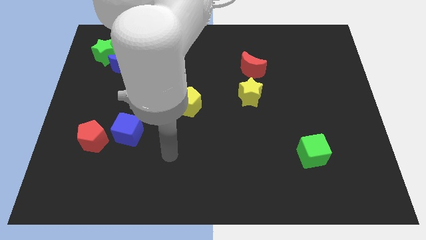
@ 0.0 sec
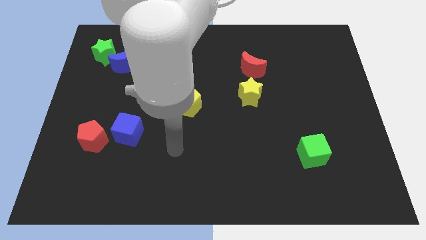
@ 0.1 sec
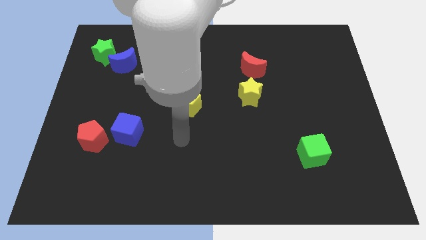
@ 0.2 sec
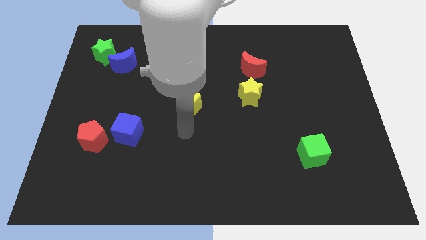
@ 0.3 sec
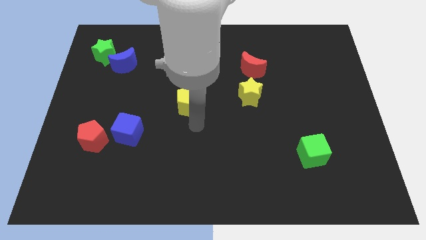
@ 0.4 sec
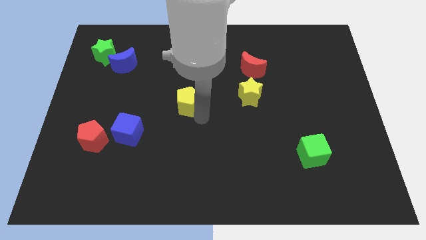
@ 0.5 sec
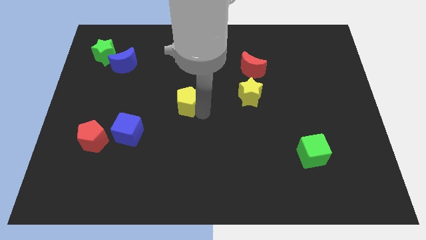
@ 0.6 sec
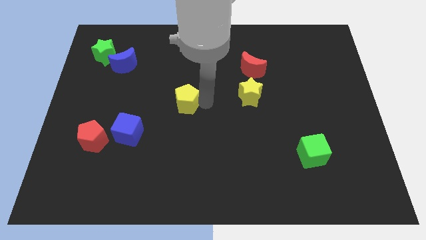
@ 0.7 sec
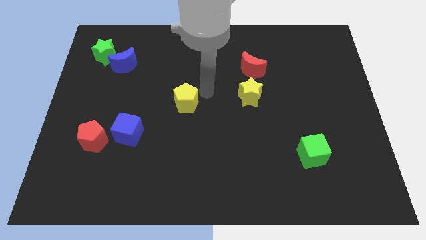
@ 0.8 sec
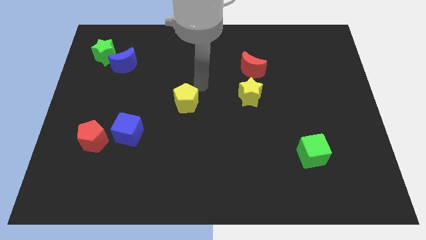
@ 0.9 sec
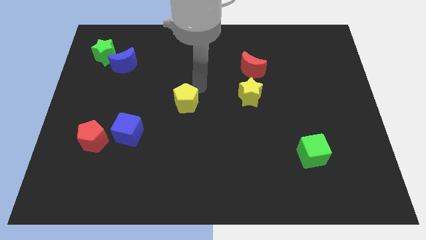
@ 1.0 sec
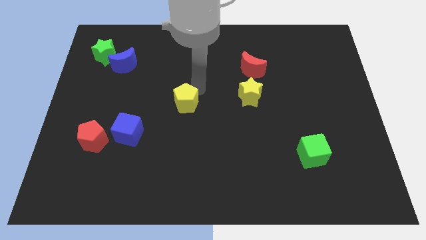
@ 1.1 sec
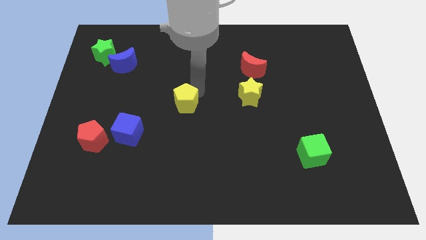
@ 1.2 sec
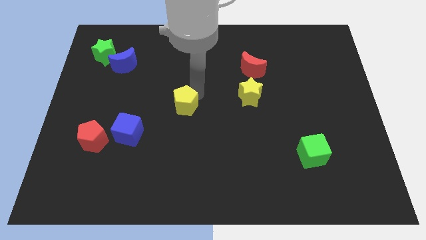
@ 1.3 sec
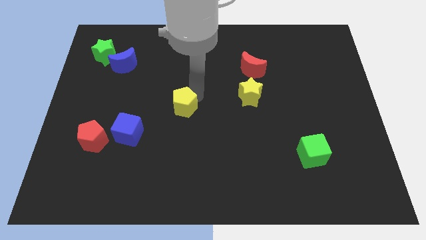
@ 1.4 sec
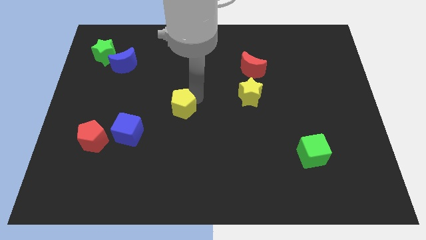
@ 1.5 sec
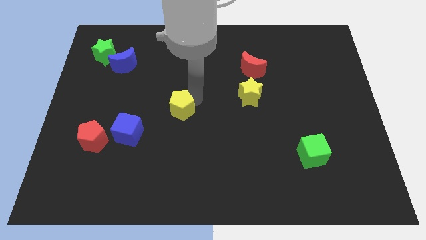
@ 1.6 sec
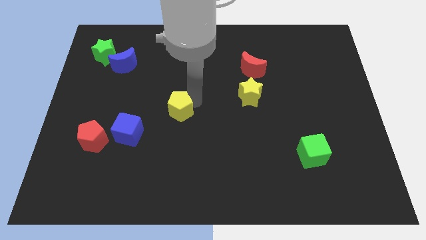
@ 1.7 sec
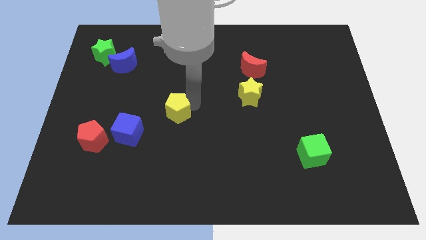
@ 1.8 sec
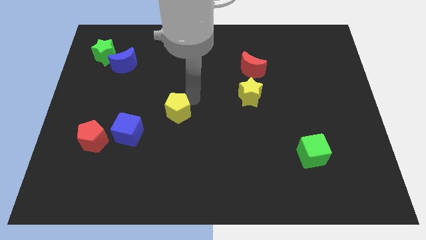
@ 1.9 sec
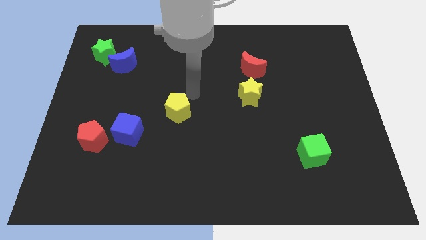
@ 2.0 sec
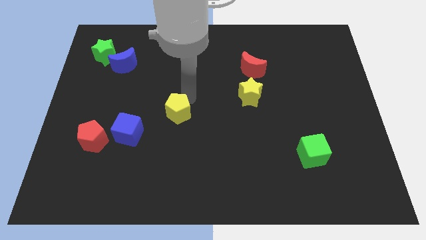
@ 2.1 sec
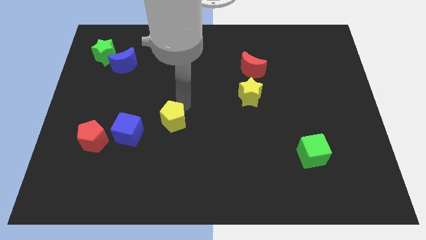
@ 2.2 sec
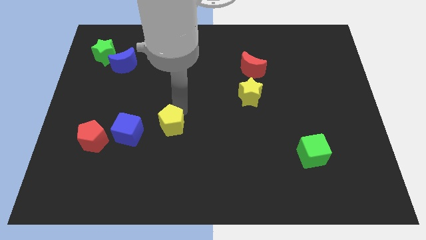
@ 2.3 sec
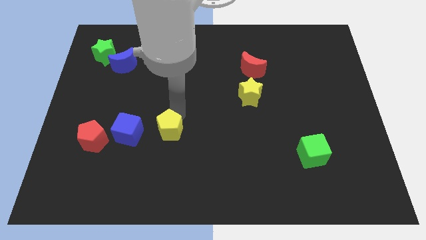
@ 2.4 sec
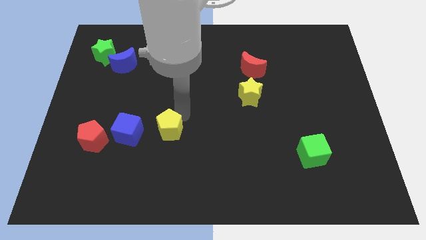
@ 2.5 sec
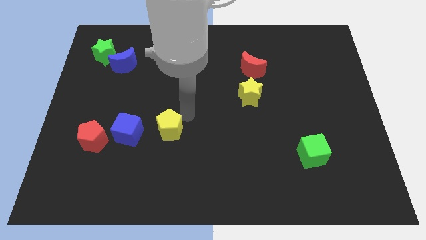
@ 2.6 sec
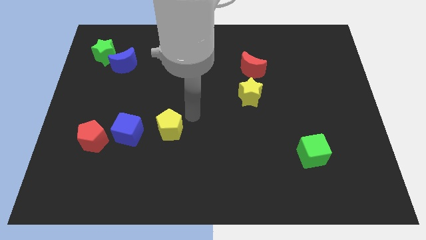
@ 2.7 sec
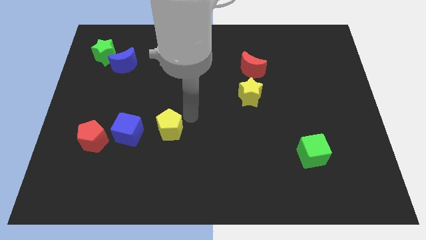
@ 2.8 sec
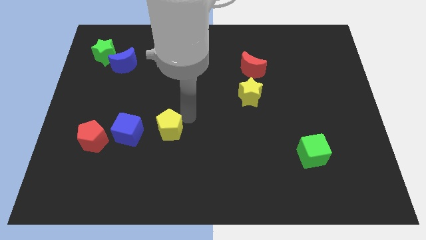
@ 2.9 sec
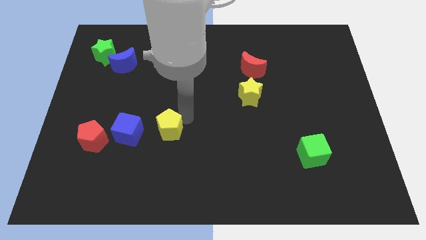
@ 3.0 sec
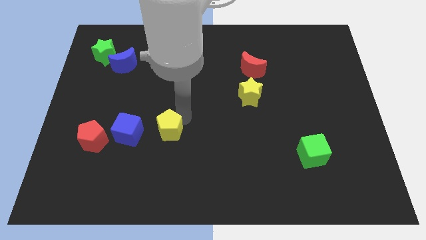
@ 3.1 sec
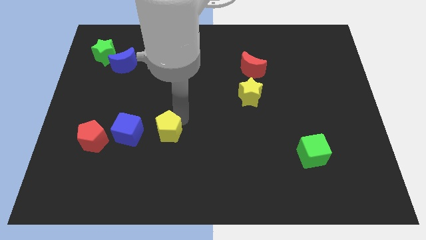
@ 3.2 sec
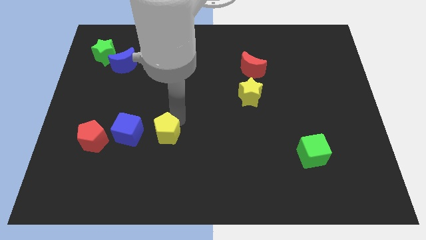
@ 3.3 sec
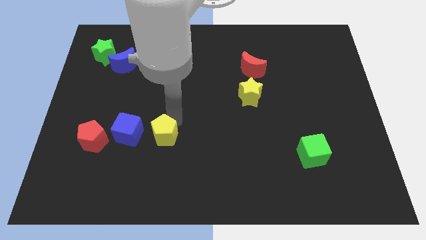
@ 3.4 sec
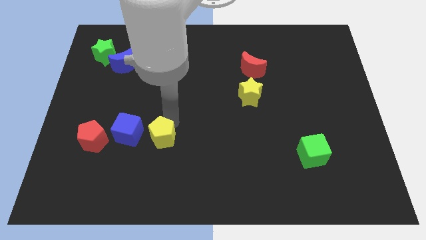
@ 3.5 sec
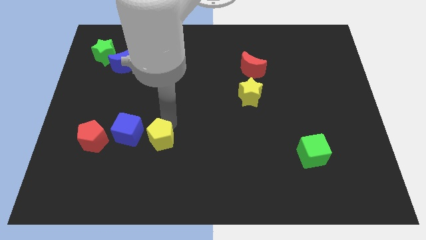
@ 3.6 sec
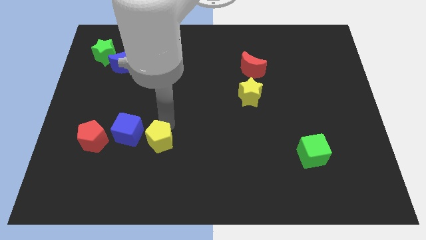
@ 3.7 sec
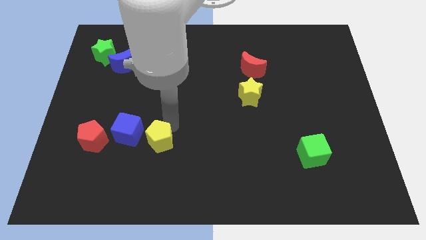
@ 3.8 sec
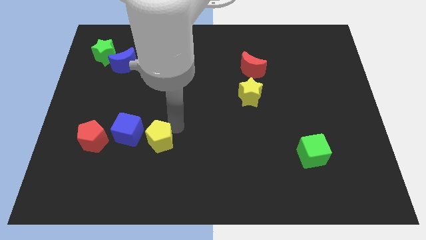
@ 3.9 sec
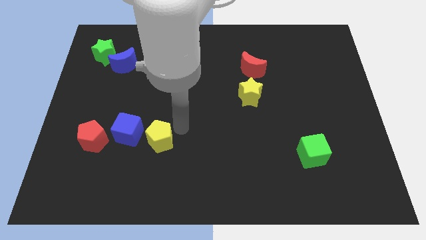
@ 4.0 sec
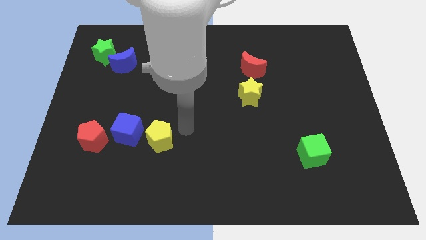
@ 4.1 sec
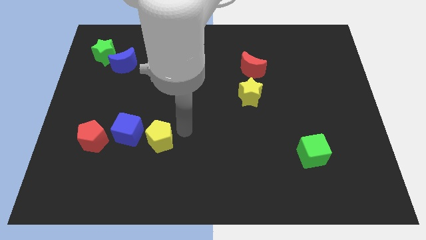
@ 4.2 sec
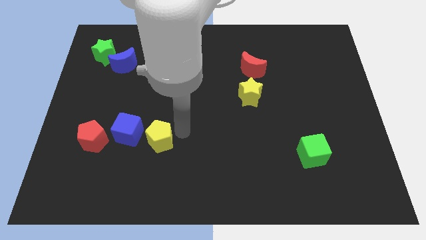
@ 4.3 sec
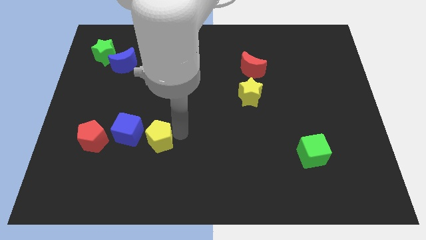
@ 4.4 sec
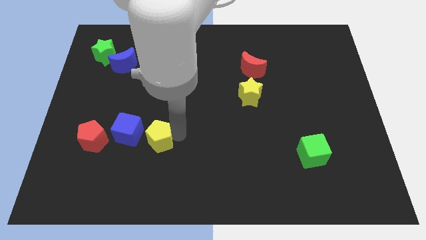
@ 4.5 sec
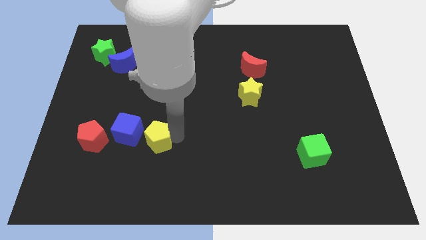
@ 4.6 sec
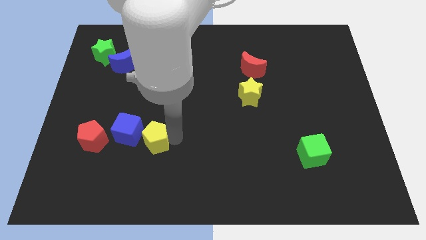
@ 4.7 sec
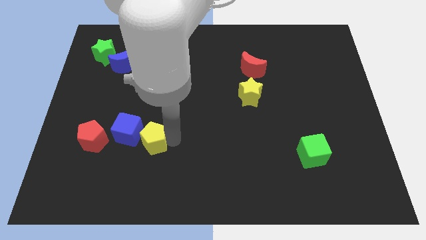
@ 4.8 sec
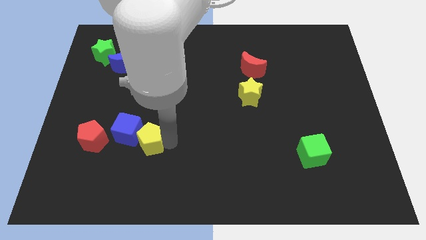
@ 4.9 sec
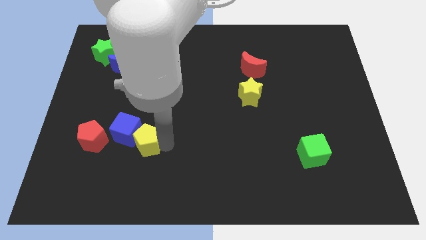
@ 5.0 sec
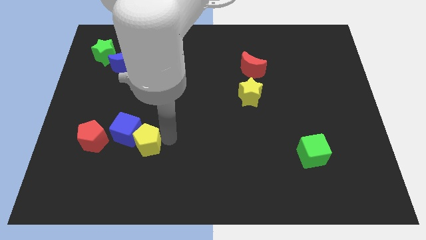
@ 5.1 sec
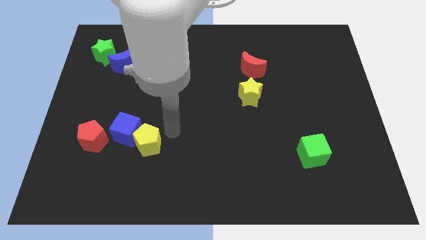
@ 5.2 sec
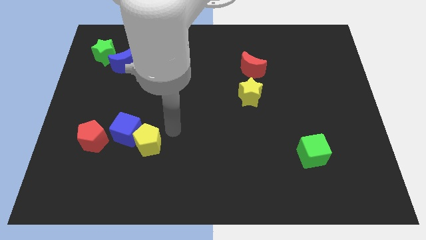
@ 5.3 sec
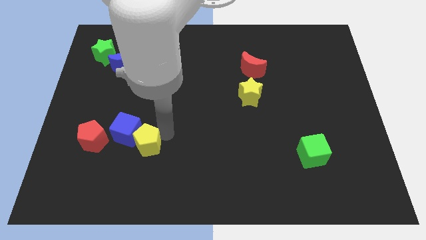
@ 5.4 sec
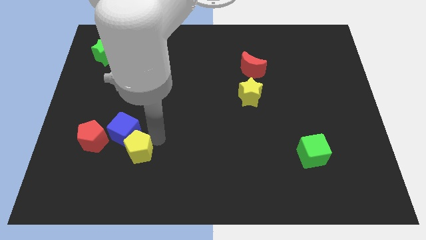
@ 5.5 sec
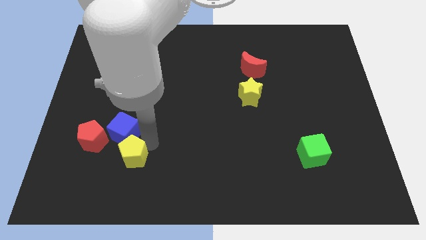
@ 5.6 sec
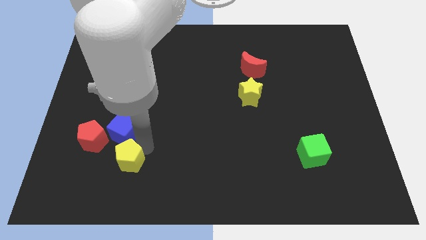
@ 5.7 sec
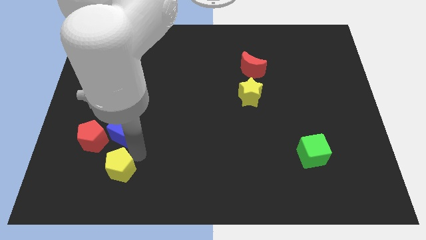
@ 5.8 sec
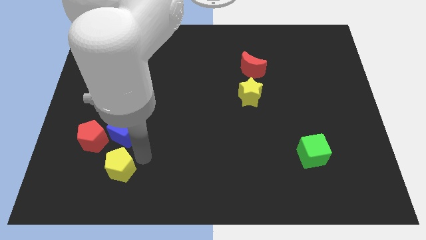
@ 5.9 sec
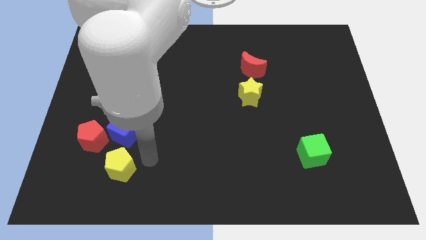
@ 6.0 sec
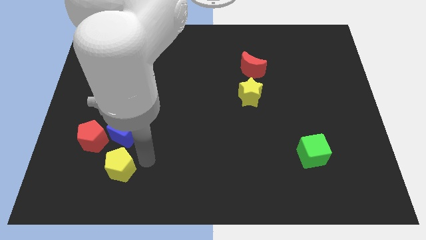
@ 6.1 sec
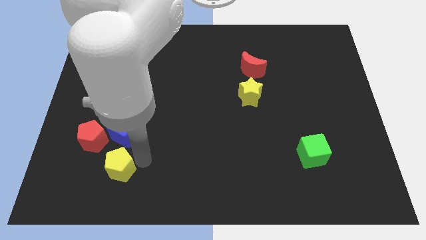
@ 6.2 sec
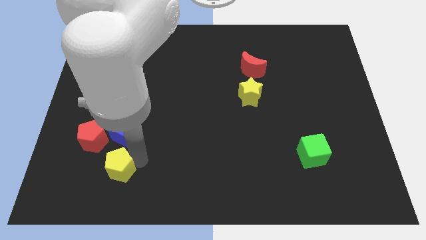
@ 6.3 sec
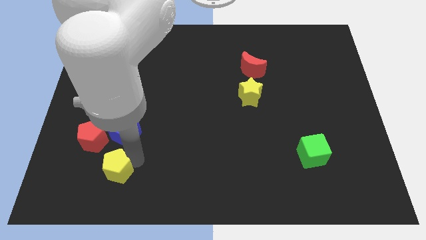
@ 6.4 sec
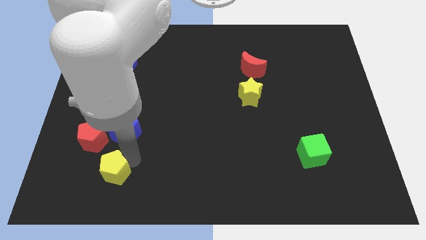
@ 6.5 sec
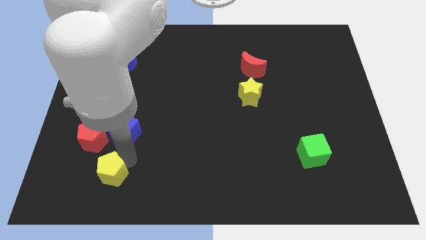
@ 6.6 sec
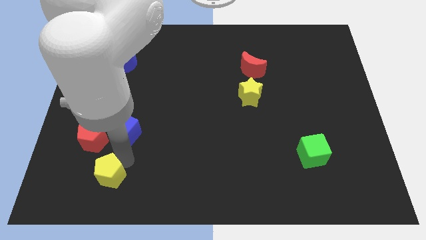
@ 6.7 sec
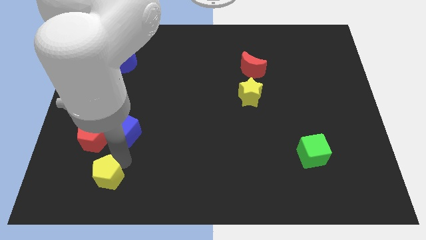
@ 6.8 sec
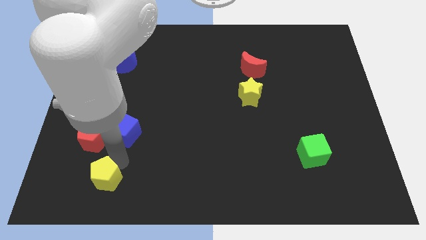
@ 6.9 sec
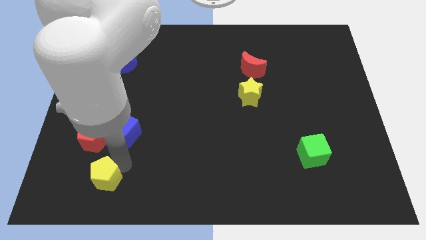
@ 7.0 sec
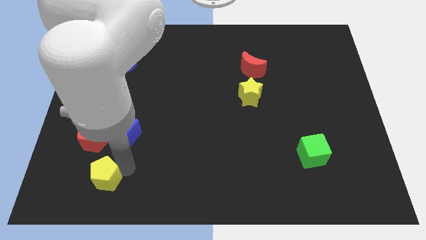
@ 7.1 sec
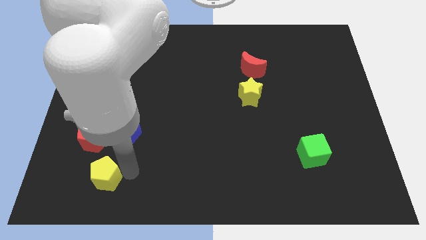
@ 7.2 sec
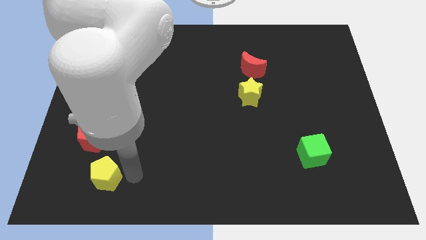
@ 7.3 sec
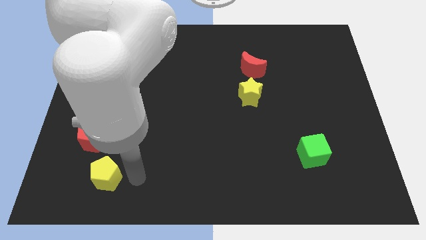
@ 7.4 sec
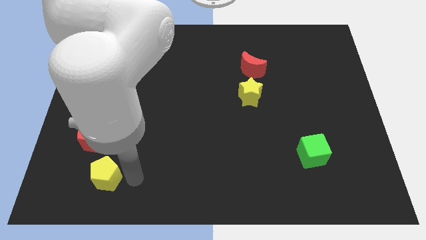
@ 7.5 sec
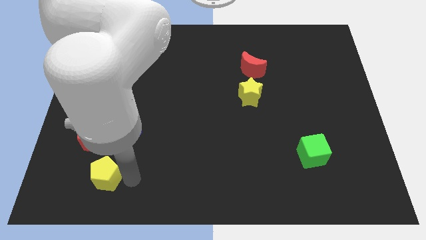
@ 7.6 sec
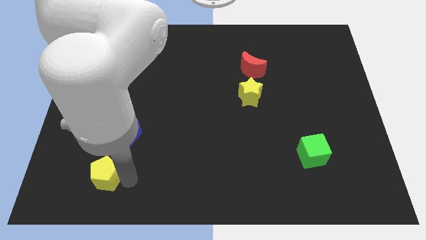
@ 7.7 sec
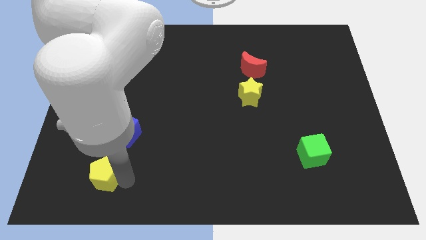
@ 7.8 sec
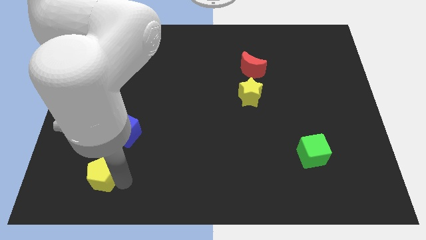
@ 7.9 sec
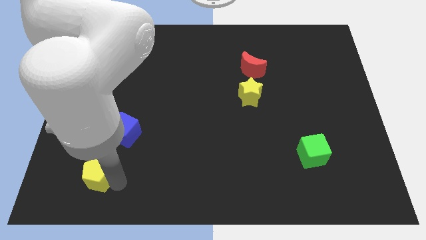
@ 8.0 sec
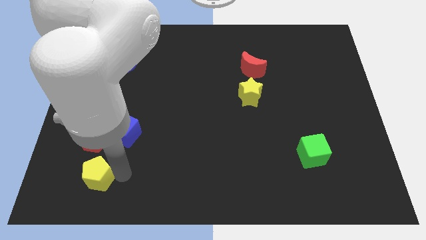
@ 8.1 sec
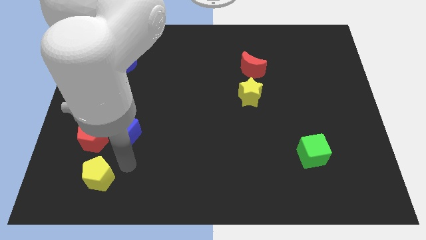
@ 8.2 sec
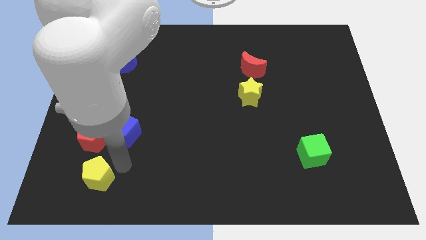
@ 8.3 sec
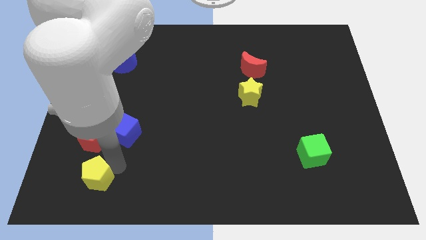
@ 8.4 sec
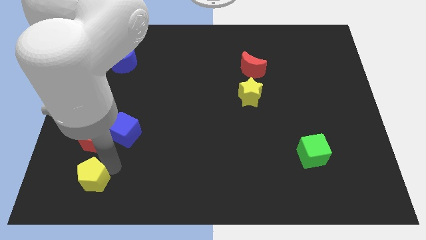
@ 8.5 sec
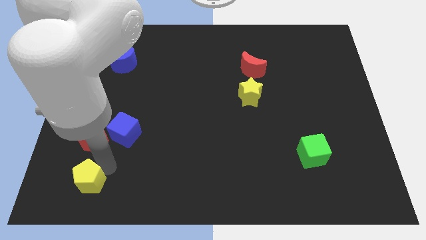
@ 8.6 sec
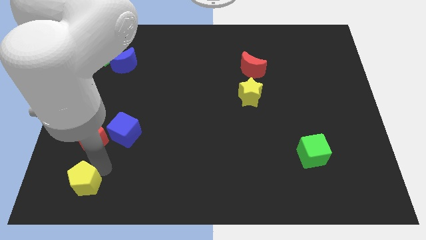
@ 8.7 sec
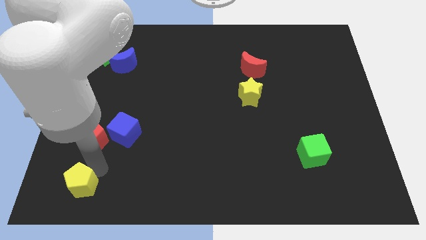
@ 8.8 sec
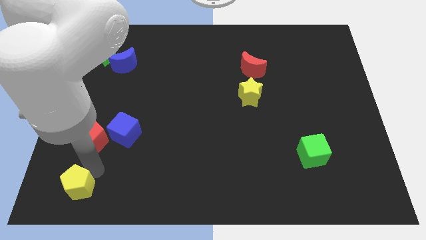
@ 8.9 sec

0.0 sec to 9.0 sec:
slide the yellow pentagon to the lower left corner
